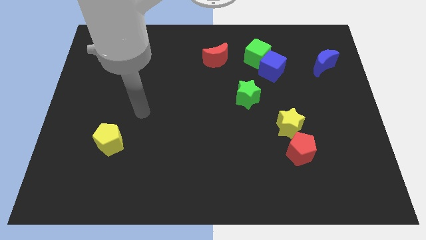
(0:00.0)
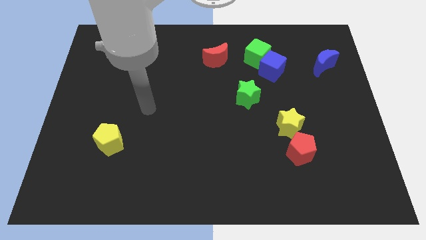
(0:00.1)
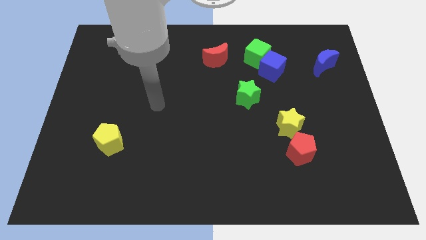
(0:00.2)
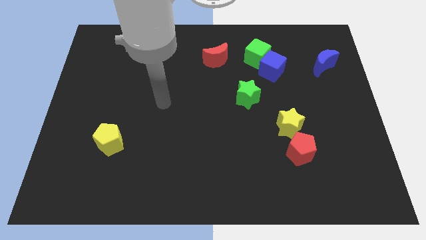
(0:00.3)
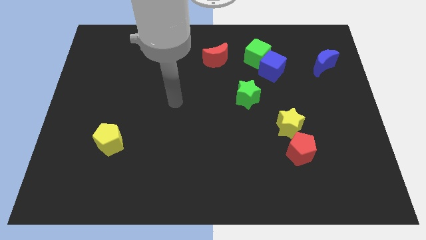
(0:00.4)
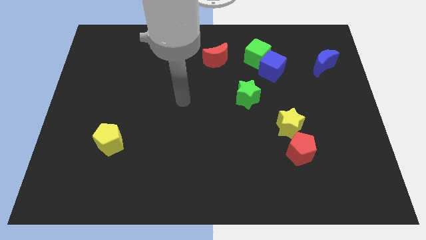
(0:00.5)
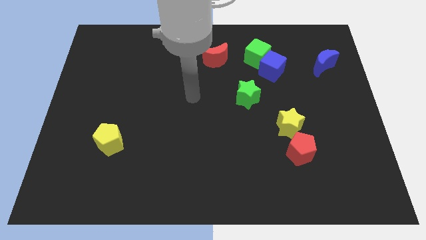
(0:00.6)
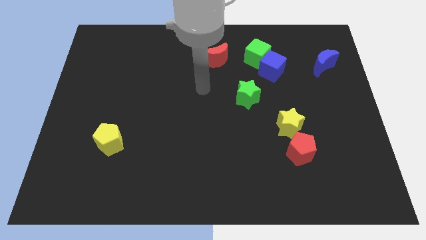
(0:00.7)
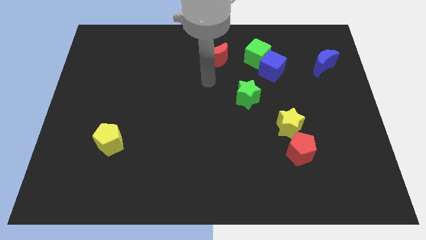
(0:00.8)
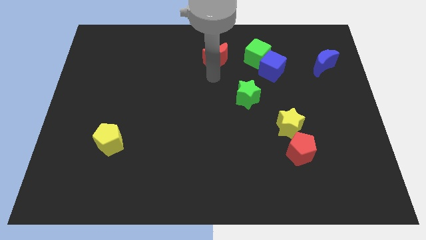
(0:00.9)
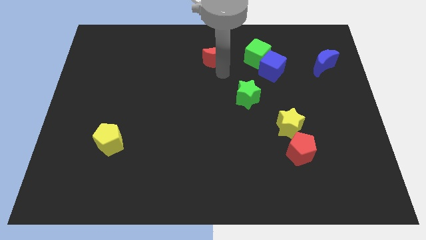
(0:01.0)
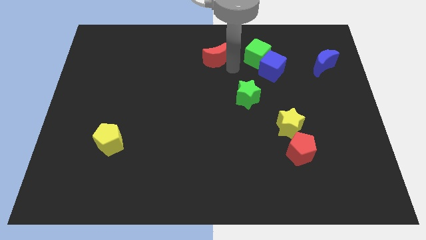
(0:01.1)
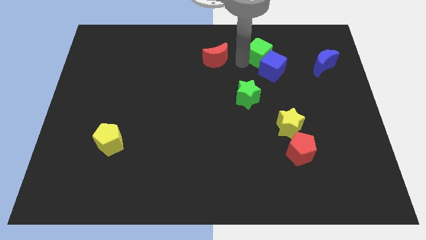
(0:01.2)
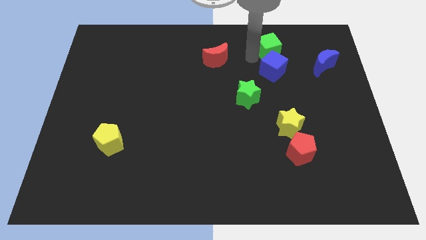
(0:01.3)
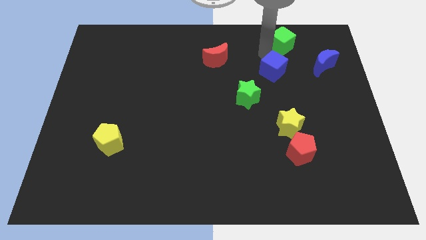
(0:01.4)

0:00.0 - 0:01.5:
pull the blue cube apart from the green cube

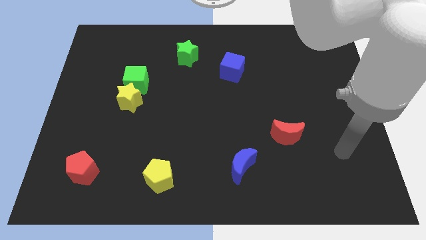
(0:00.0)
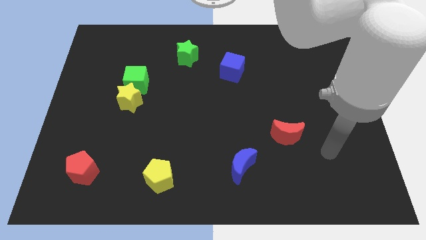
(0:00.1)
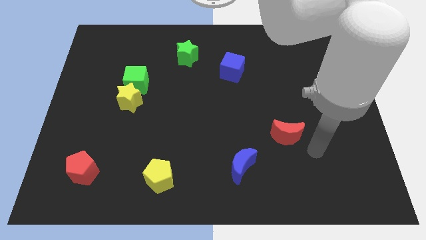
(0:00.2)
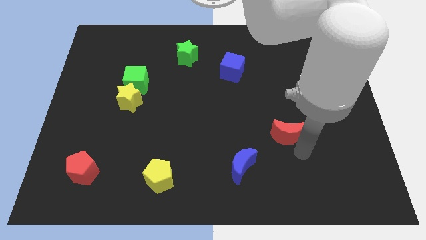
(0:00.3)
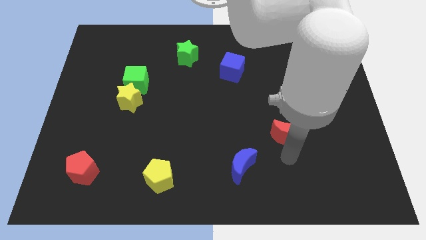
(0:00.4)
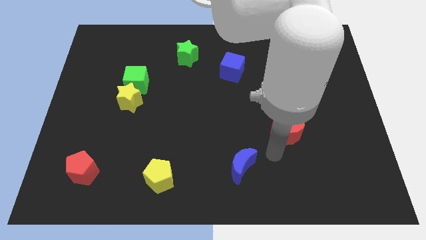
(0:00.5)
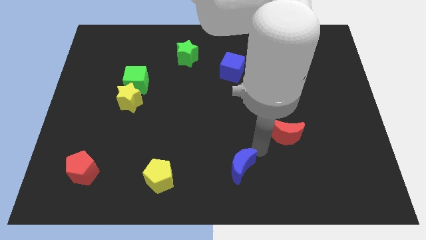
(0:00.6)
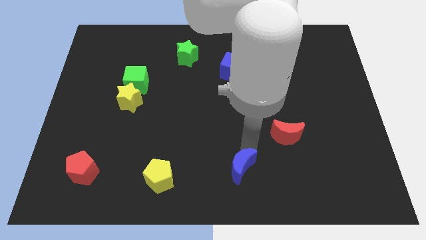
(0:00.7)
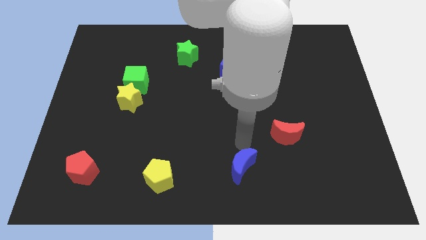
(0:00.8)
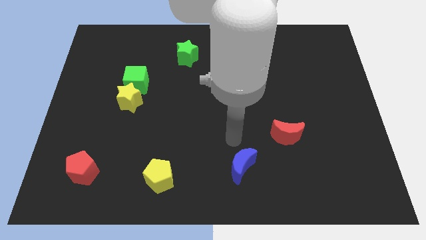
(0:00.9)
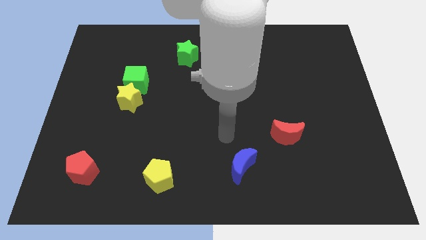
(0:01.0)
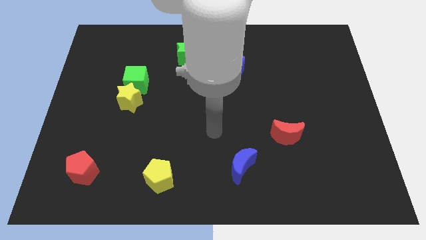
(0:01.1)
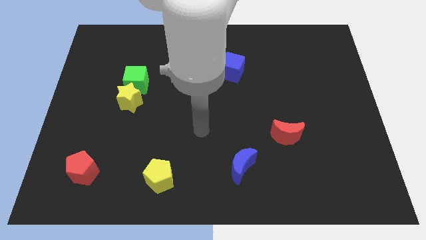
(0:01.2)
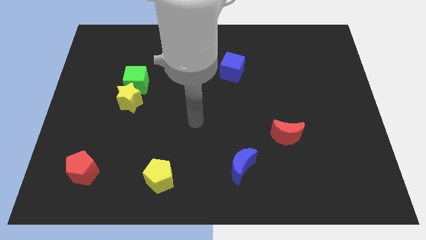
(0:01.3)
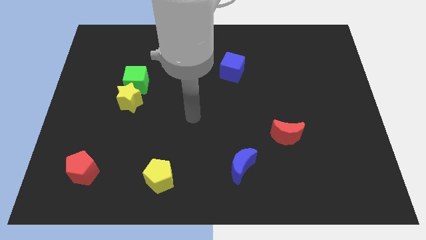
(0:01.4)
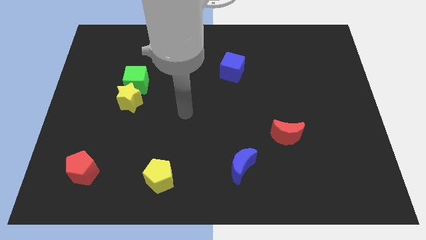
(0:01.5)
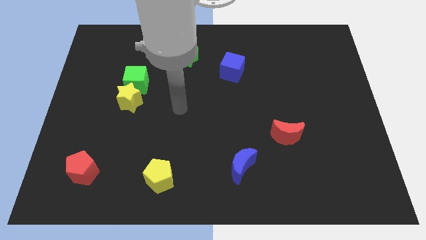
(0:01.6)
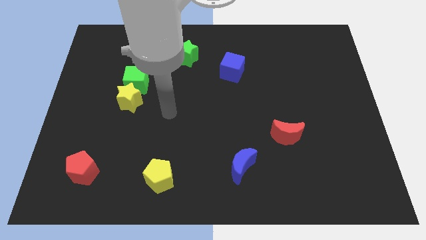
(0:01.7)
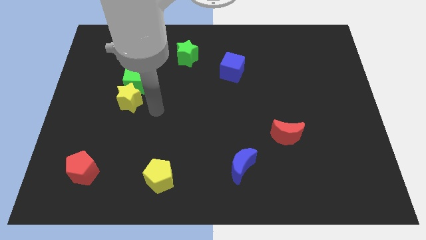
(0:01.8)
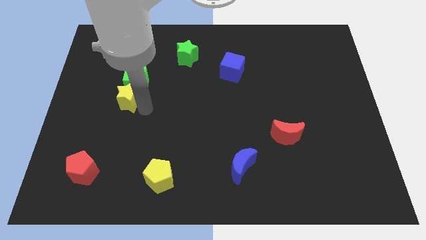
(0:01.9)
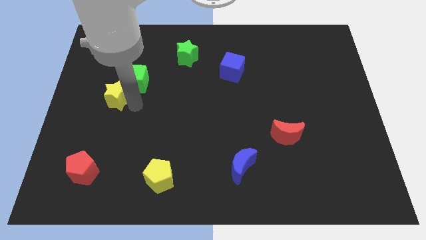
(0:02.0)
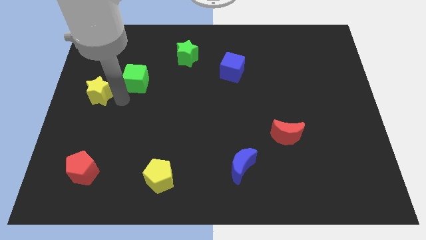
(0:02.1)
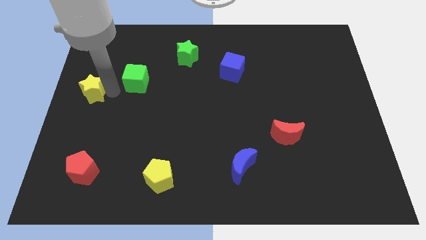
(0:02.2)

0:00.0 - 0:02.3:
pull the green cube apart from the yellow star

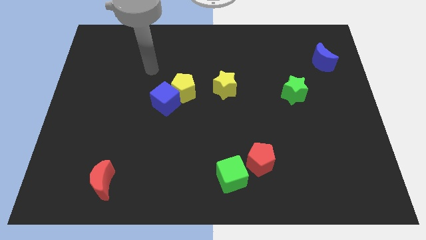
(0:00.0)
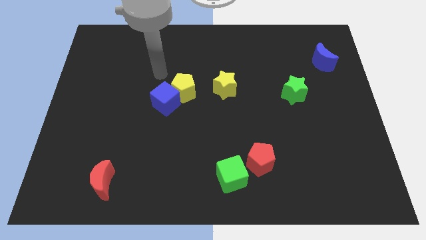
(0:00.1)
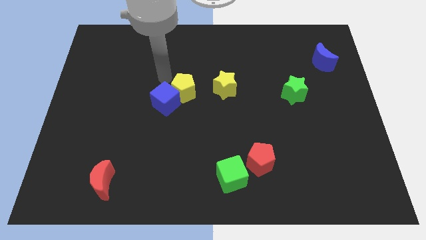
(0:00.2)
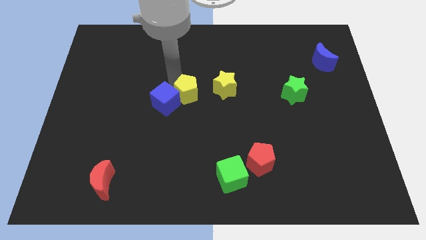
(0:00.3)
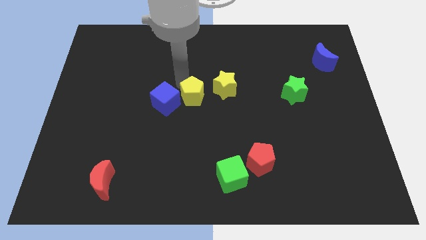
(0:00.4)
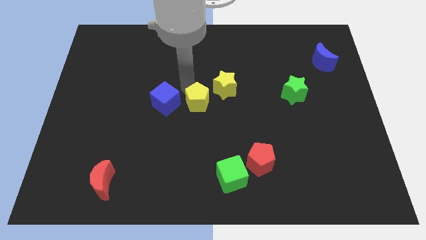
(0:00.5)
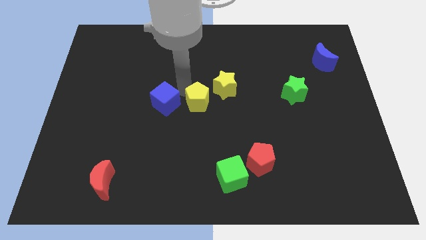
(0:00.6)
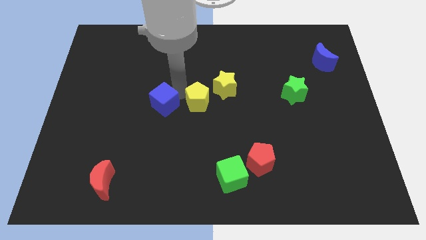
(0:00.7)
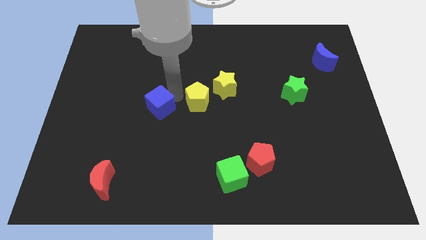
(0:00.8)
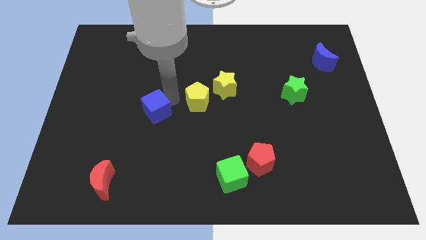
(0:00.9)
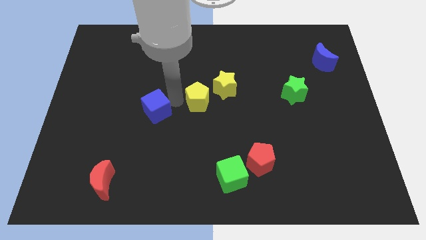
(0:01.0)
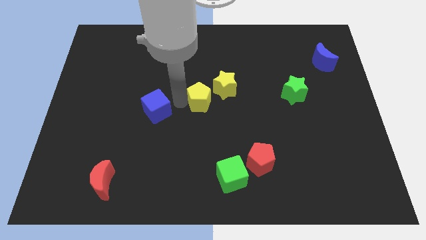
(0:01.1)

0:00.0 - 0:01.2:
separate the blue cube from the yellow pentagon

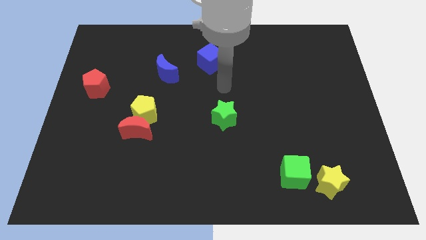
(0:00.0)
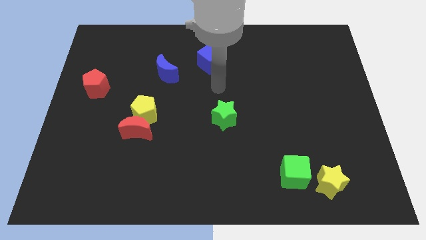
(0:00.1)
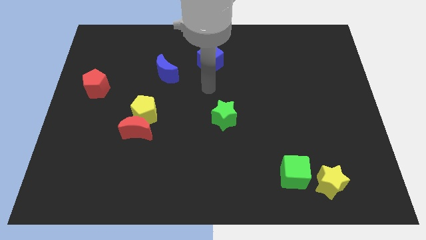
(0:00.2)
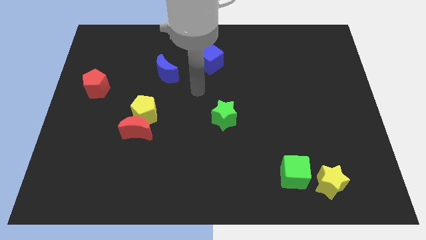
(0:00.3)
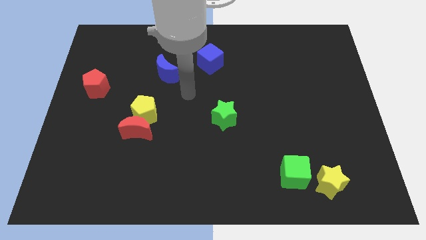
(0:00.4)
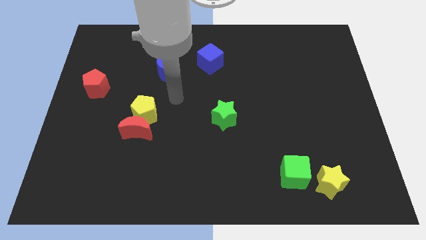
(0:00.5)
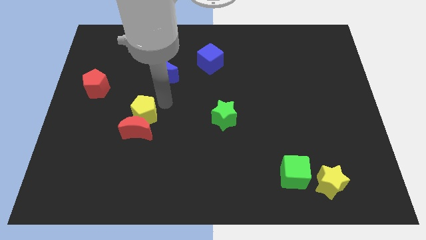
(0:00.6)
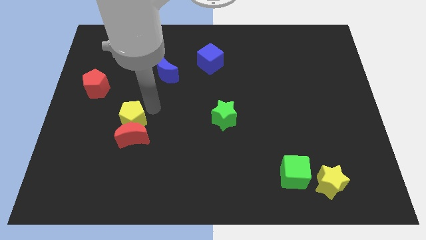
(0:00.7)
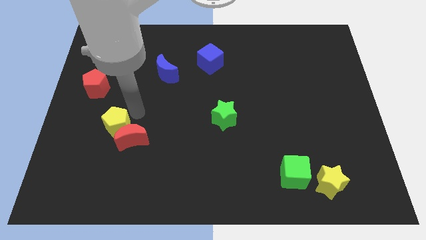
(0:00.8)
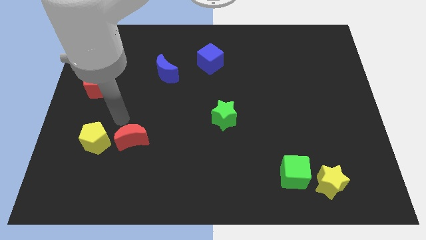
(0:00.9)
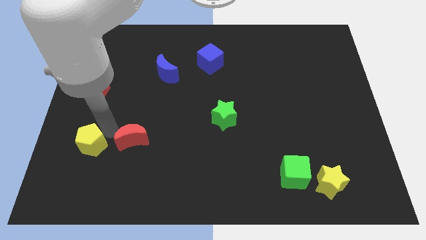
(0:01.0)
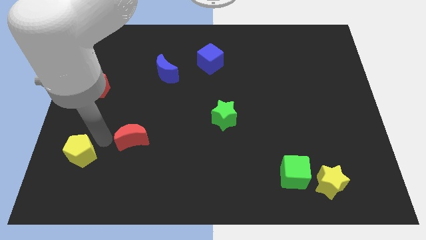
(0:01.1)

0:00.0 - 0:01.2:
separate the red moon from the yellow pentagon

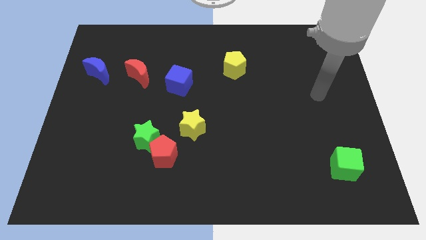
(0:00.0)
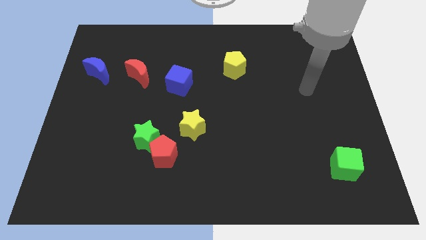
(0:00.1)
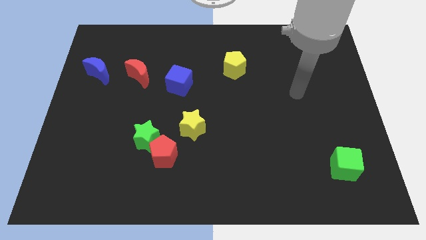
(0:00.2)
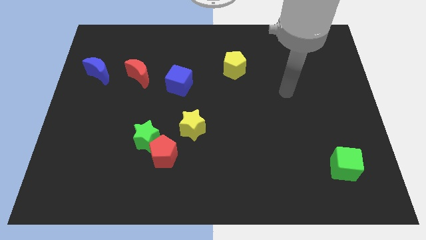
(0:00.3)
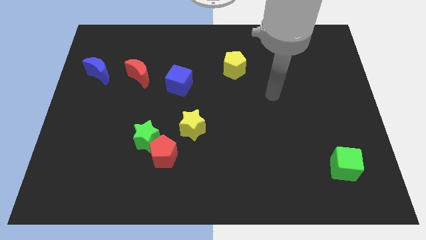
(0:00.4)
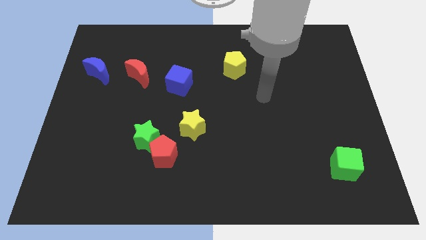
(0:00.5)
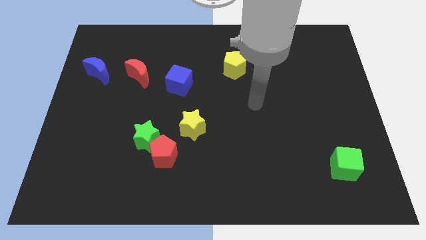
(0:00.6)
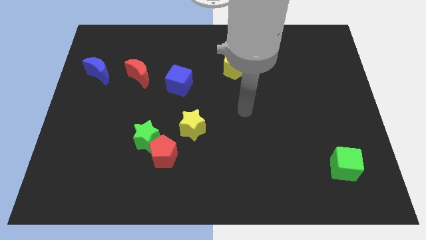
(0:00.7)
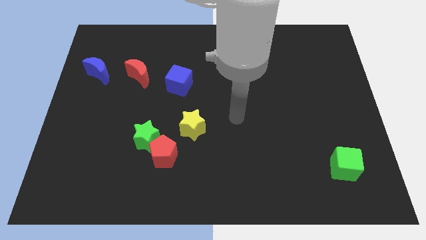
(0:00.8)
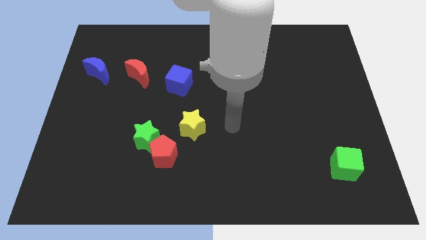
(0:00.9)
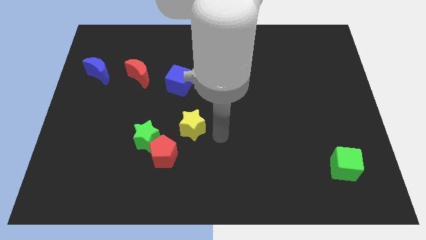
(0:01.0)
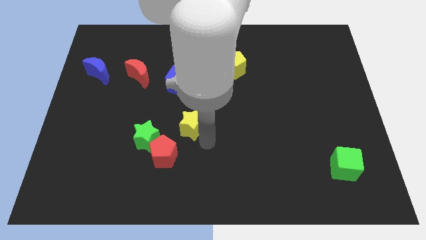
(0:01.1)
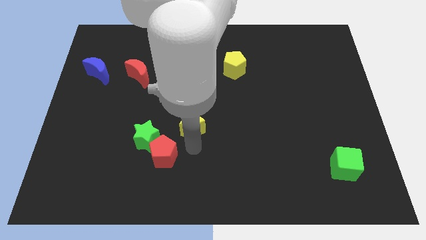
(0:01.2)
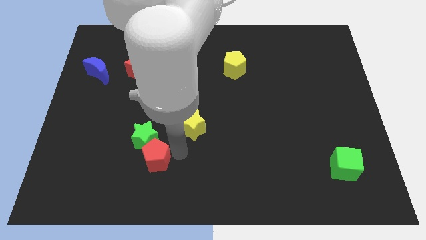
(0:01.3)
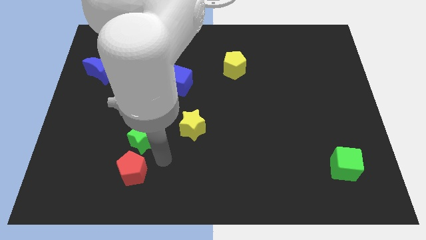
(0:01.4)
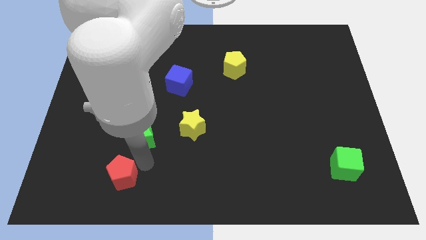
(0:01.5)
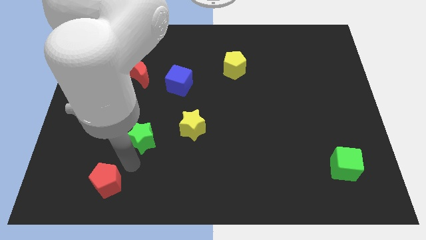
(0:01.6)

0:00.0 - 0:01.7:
pull the green star apart from the red pentagon

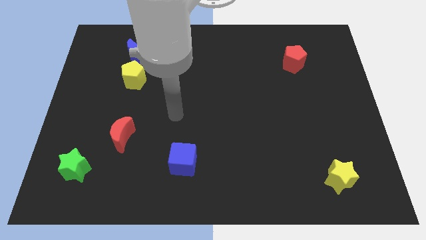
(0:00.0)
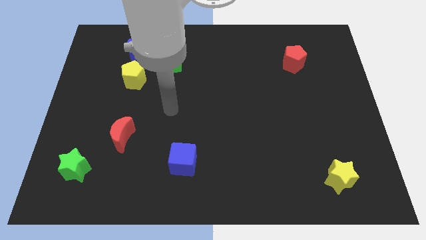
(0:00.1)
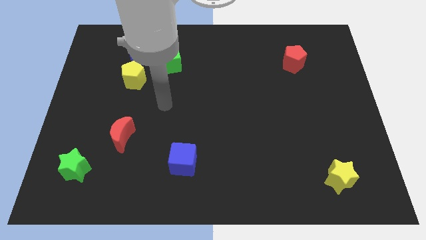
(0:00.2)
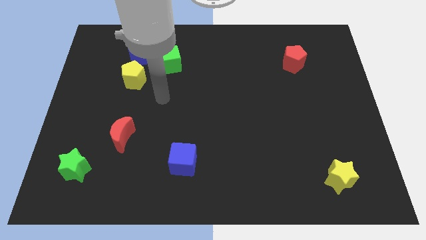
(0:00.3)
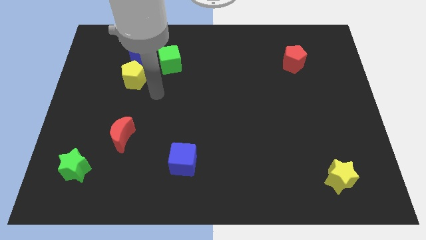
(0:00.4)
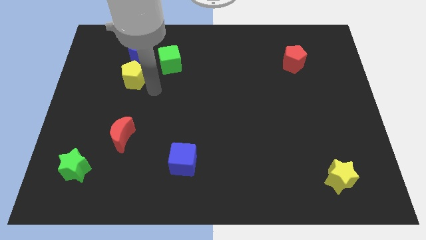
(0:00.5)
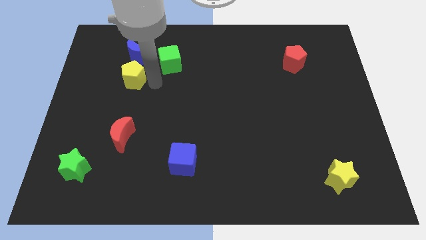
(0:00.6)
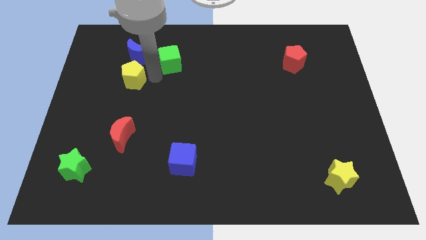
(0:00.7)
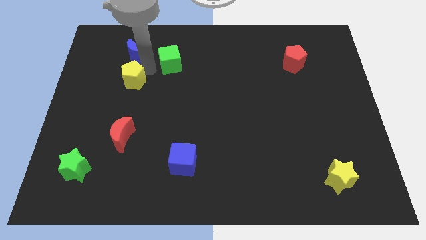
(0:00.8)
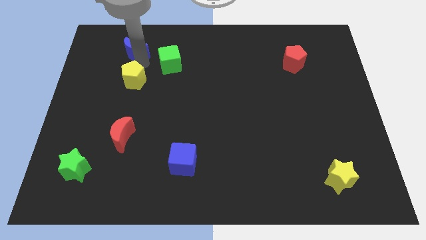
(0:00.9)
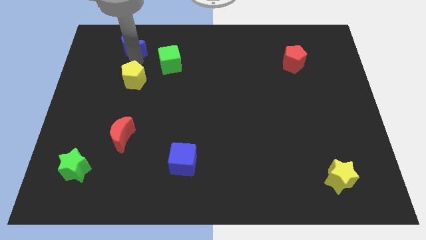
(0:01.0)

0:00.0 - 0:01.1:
separate the yellow pentagon from the blue moon

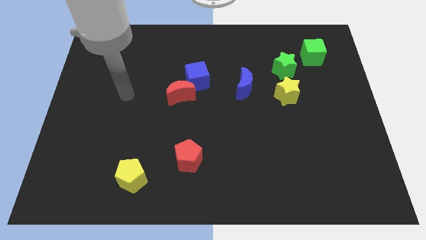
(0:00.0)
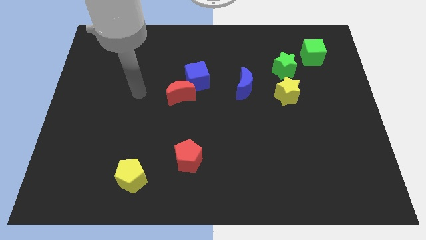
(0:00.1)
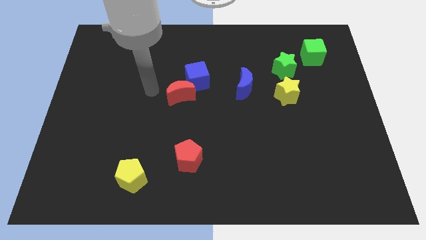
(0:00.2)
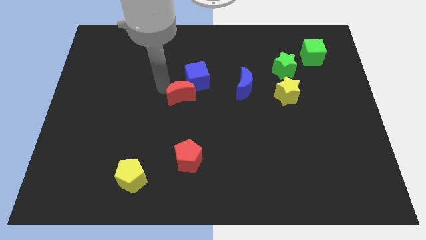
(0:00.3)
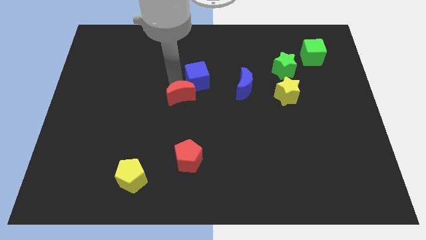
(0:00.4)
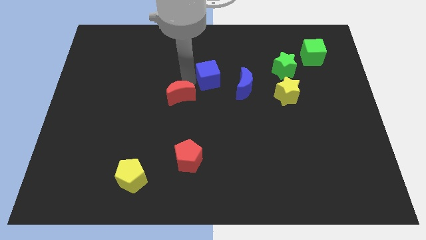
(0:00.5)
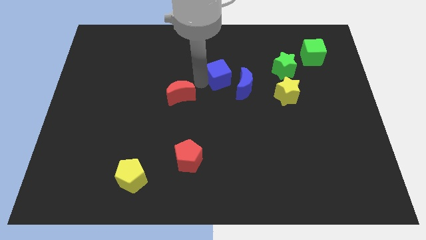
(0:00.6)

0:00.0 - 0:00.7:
separate the red moon from the blue cube
